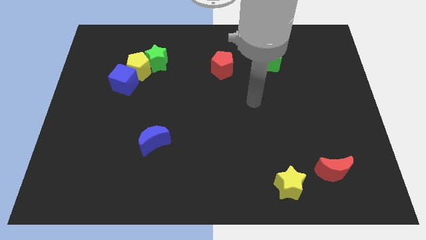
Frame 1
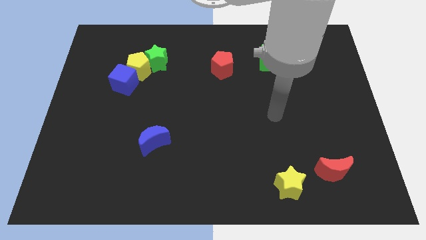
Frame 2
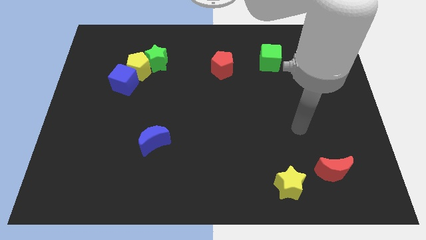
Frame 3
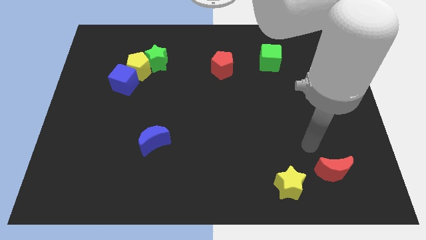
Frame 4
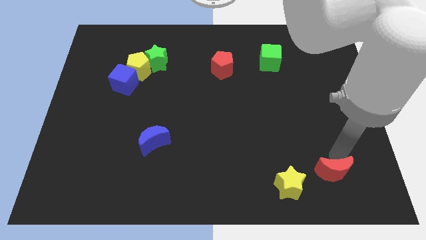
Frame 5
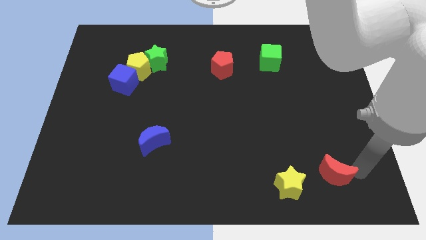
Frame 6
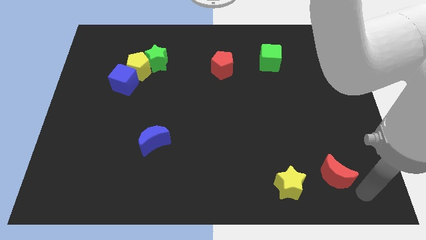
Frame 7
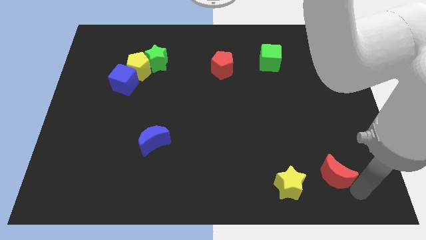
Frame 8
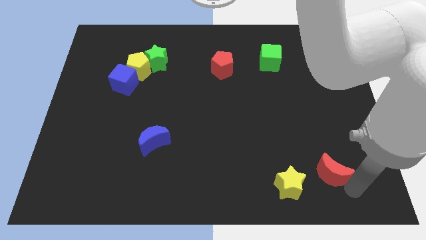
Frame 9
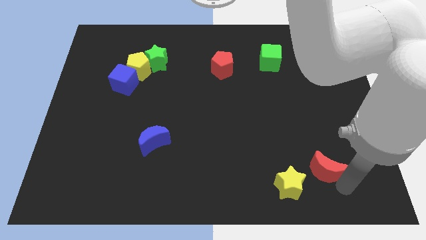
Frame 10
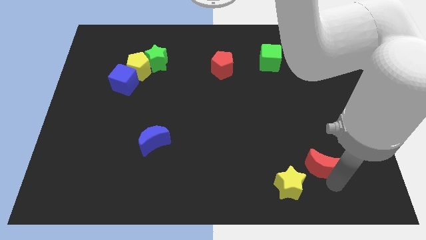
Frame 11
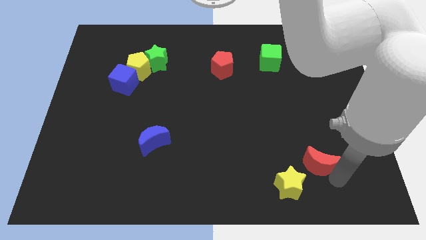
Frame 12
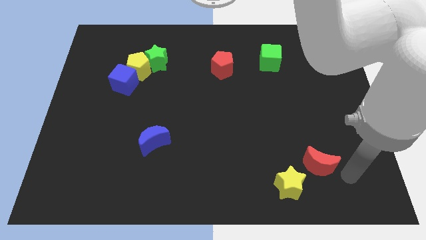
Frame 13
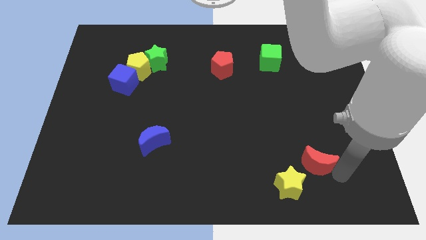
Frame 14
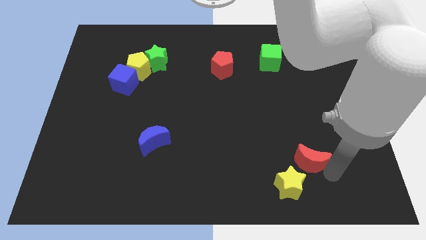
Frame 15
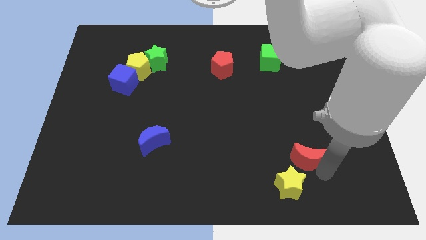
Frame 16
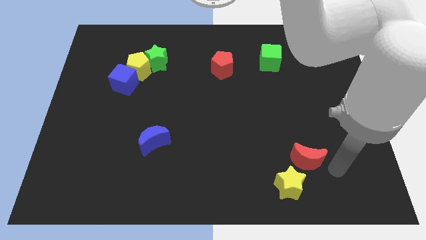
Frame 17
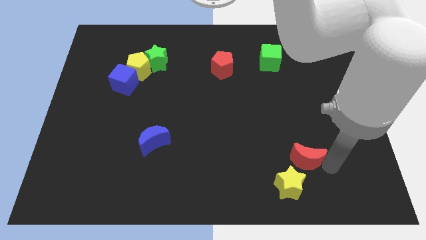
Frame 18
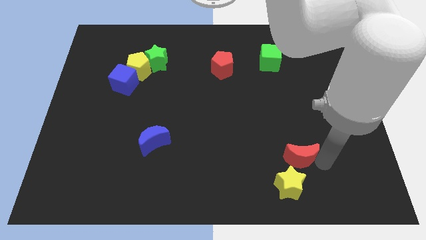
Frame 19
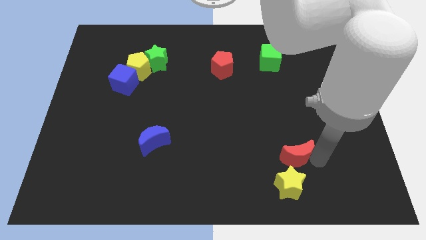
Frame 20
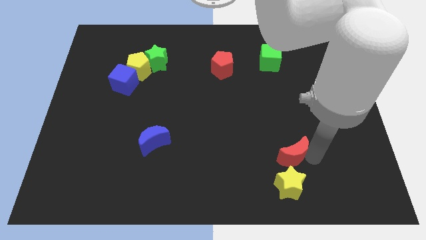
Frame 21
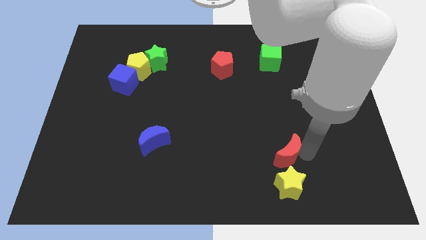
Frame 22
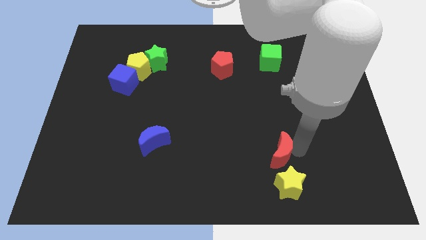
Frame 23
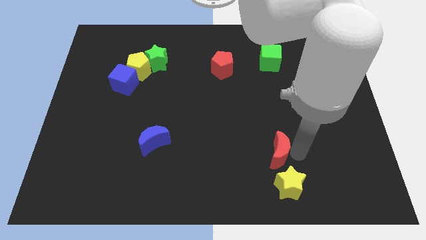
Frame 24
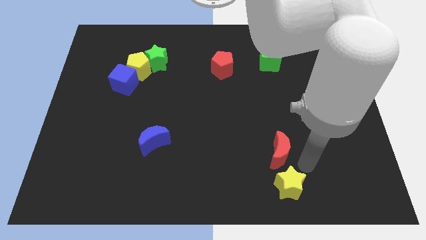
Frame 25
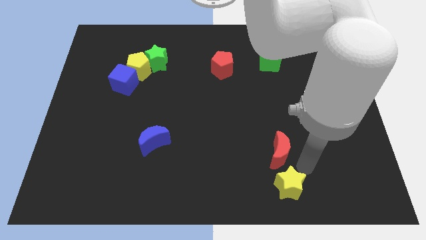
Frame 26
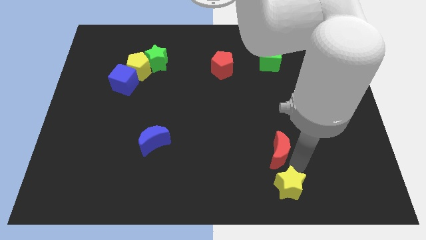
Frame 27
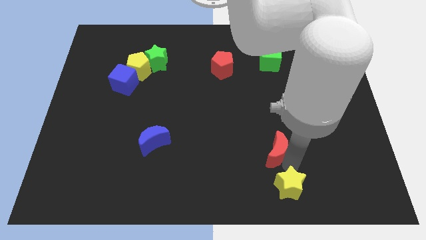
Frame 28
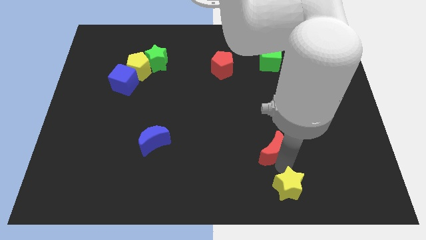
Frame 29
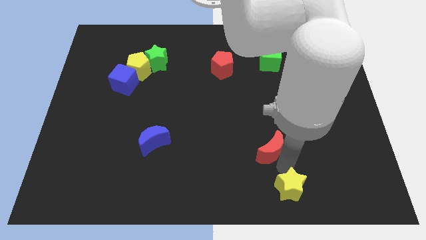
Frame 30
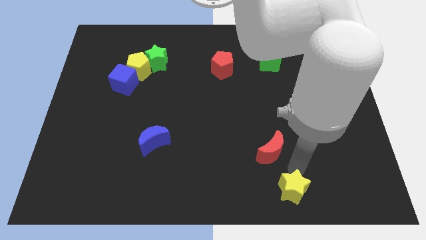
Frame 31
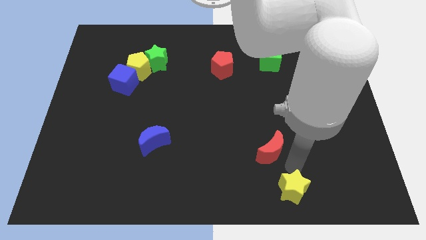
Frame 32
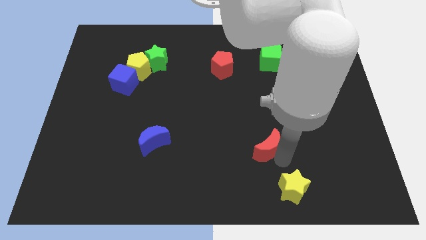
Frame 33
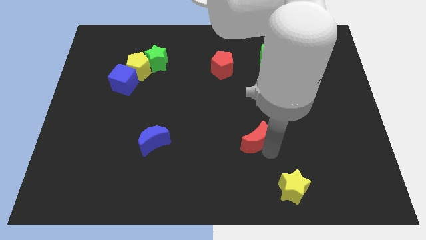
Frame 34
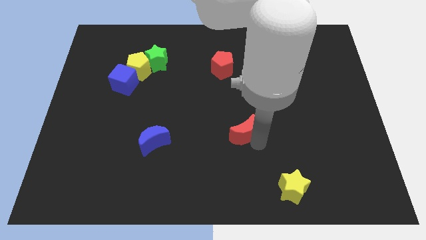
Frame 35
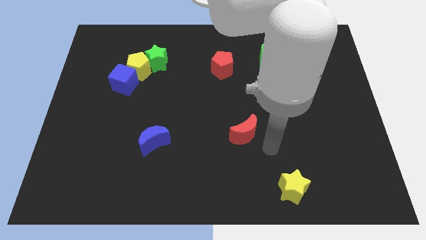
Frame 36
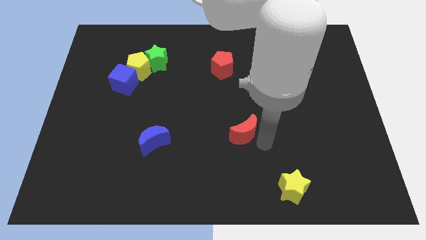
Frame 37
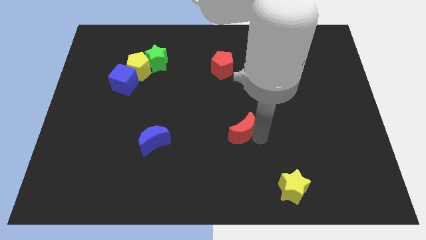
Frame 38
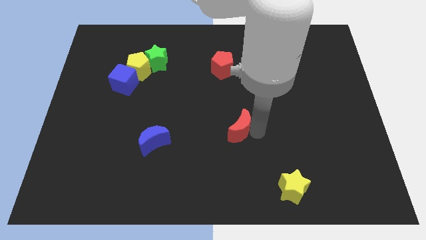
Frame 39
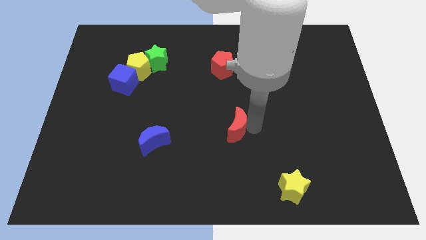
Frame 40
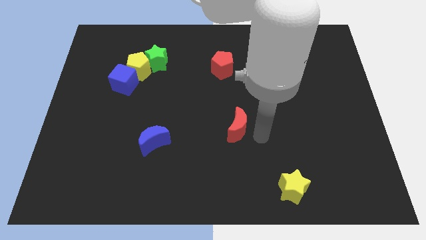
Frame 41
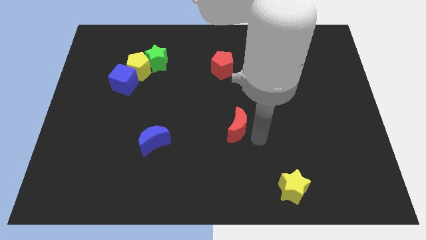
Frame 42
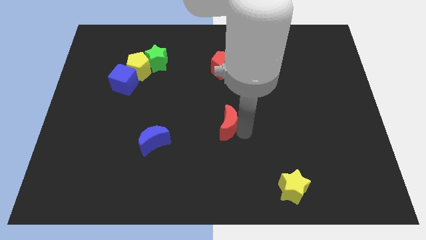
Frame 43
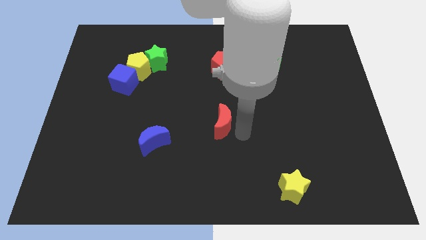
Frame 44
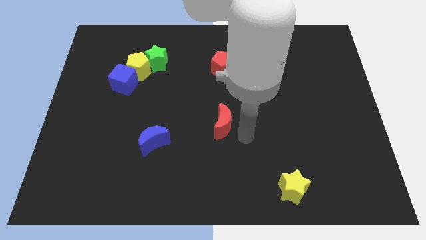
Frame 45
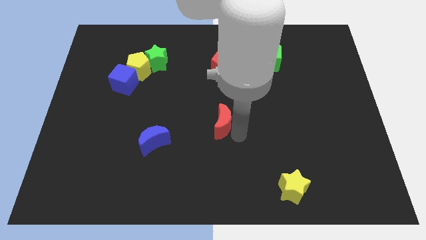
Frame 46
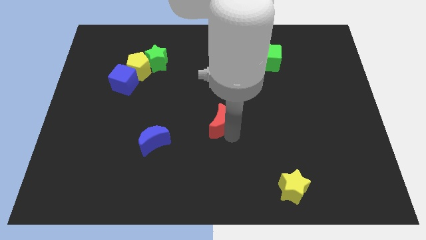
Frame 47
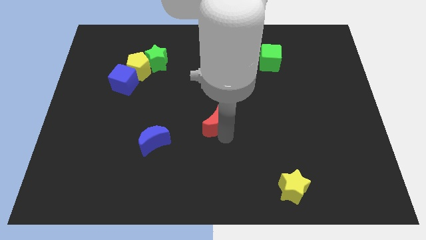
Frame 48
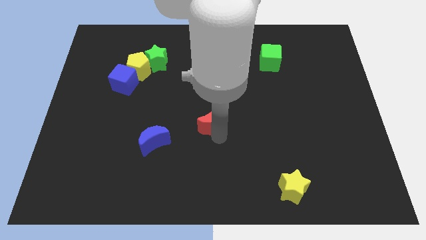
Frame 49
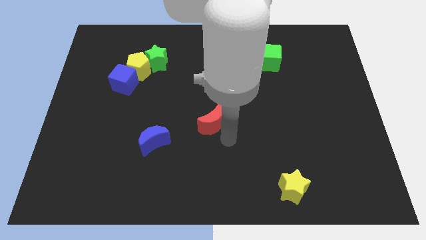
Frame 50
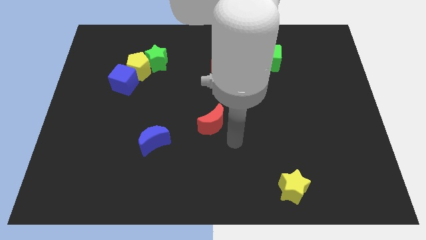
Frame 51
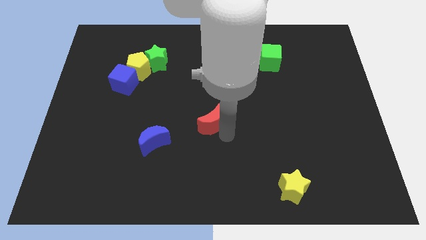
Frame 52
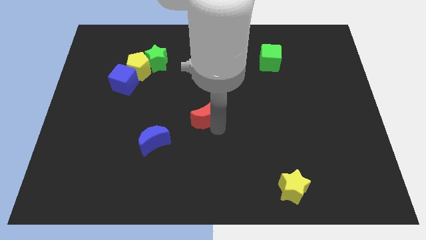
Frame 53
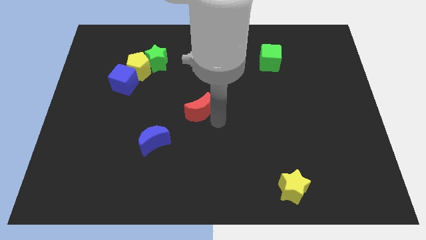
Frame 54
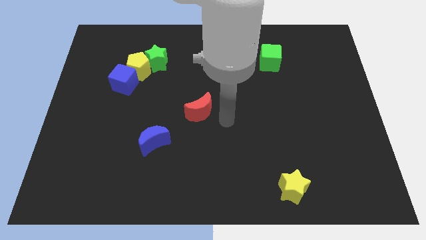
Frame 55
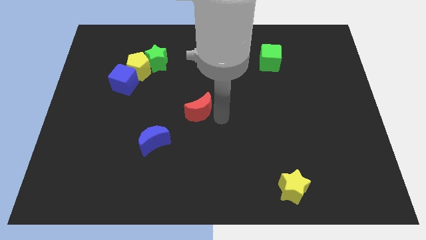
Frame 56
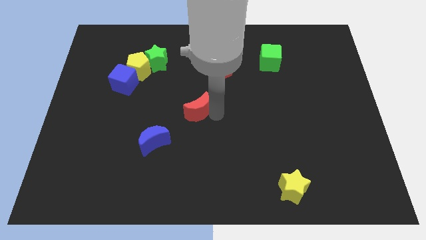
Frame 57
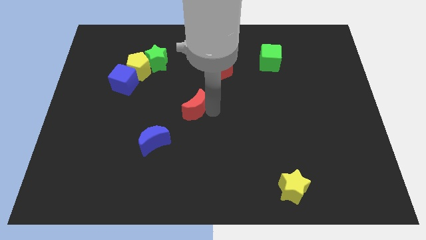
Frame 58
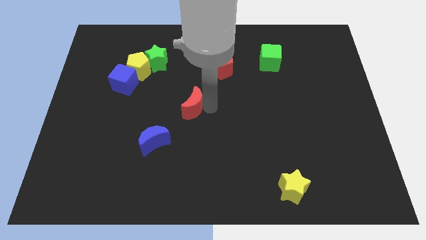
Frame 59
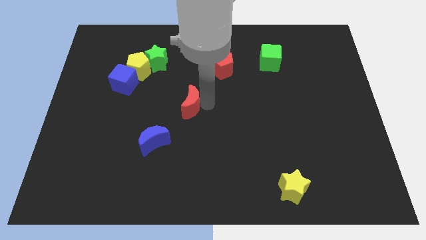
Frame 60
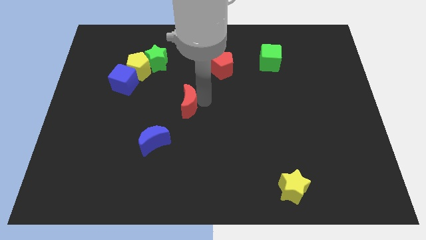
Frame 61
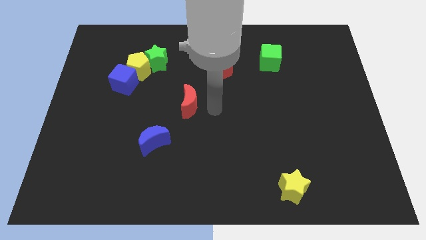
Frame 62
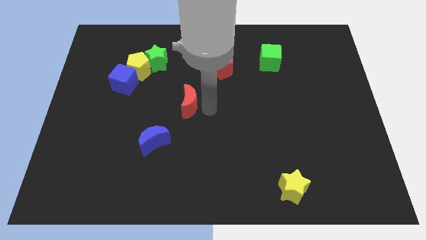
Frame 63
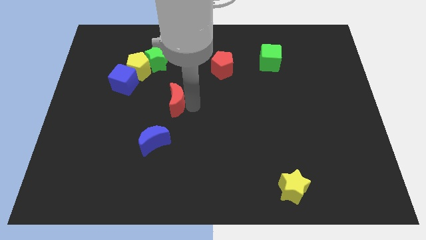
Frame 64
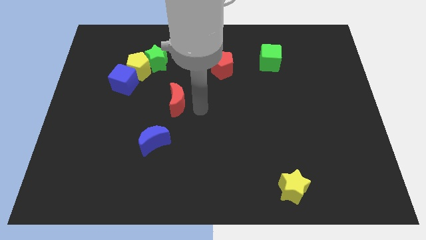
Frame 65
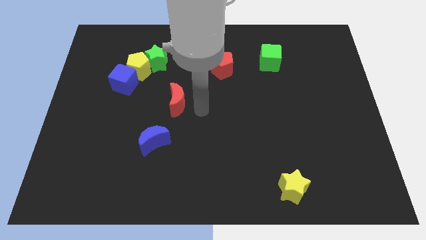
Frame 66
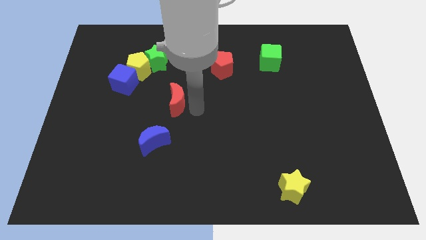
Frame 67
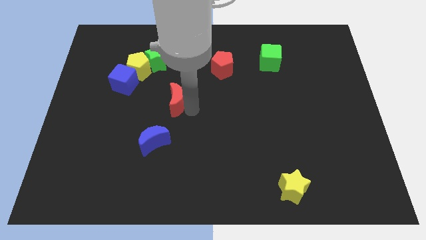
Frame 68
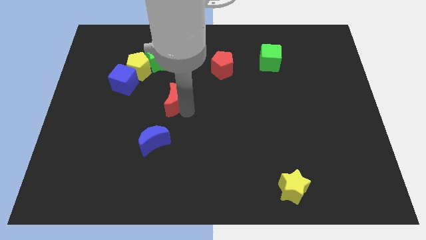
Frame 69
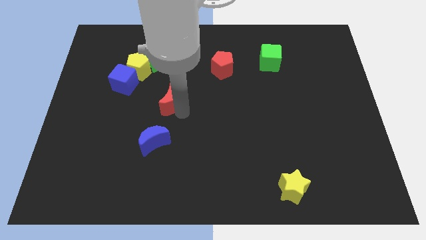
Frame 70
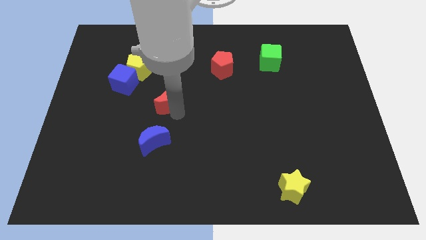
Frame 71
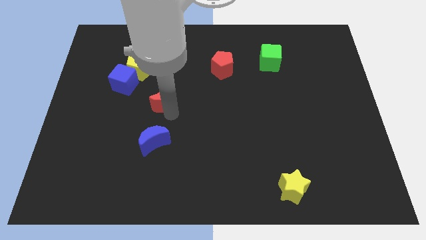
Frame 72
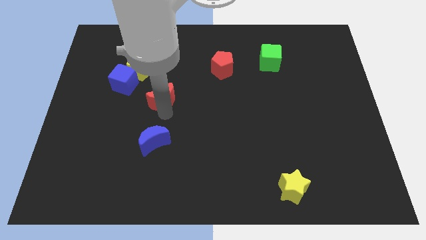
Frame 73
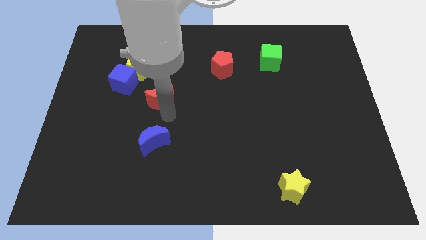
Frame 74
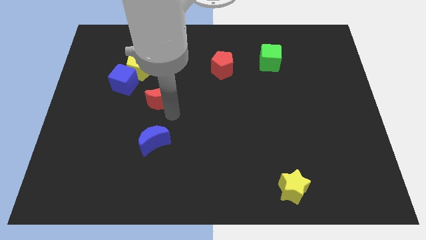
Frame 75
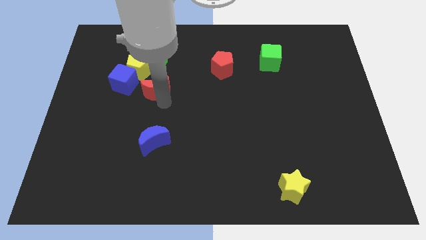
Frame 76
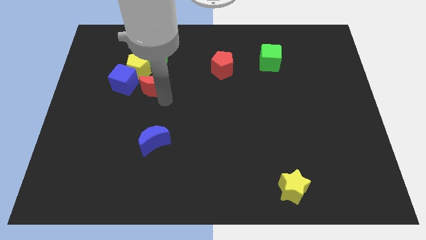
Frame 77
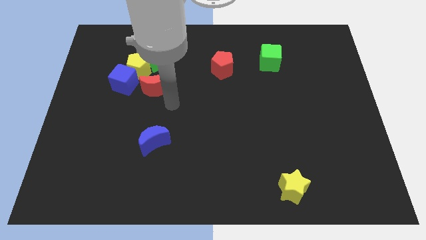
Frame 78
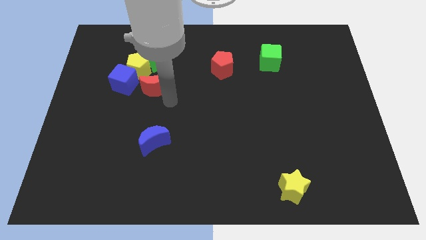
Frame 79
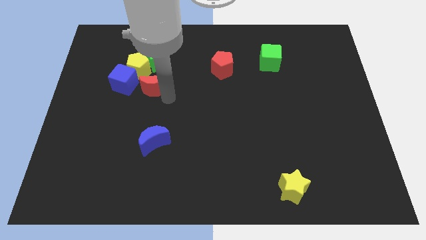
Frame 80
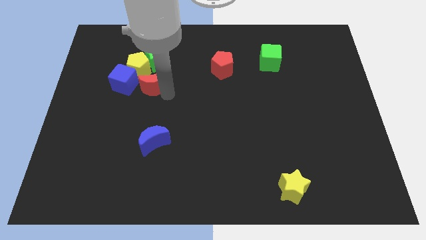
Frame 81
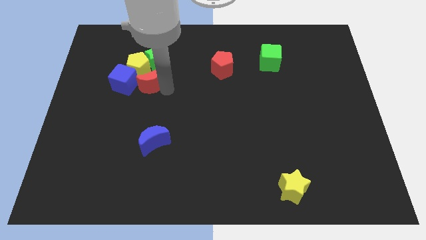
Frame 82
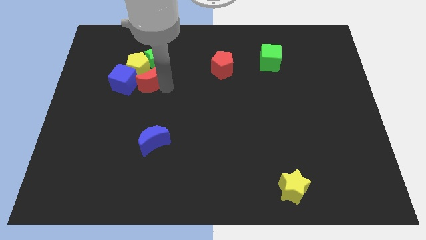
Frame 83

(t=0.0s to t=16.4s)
slide the red moon close to the yellow pentagon
